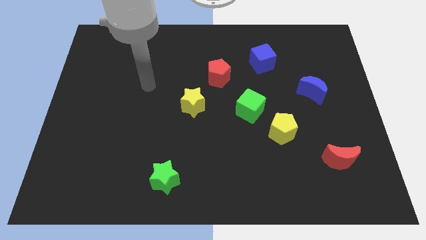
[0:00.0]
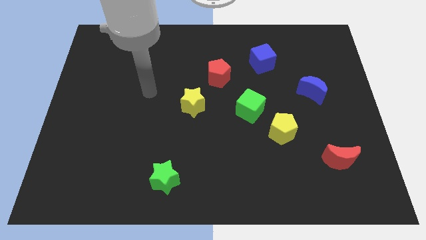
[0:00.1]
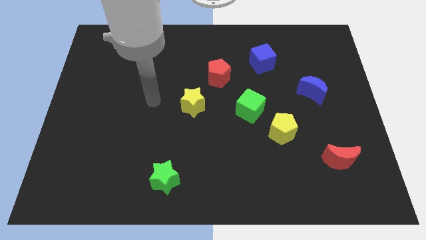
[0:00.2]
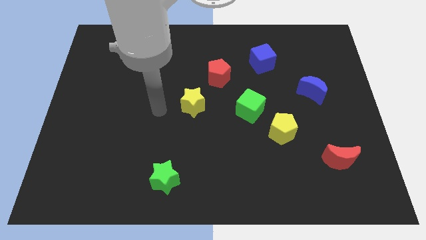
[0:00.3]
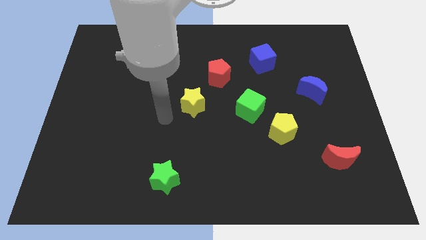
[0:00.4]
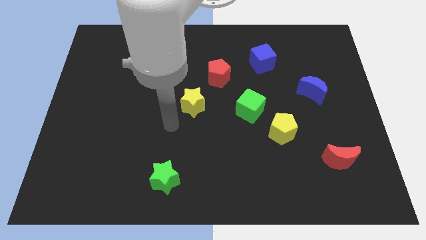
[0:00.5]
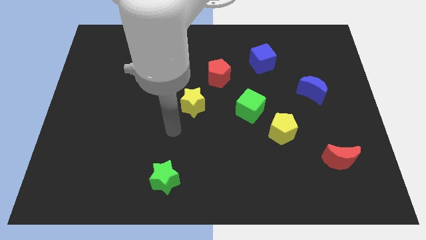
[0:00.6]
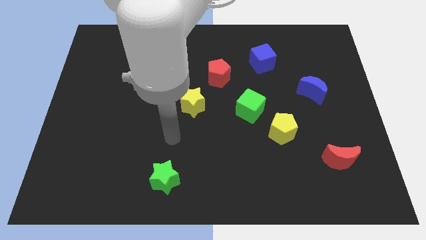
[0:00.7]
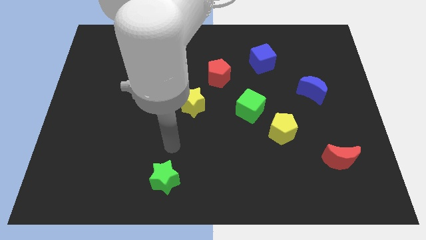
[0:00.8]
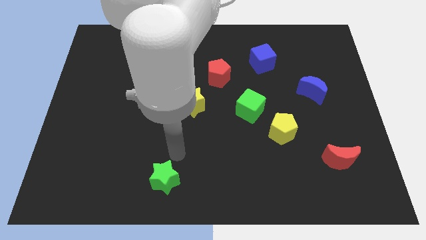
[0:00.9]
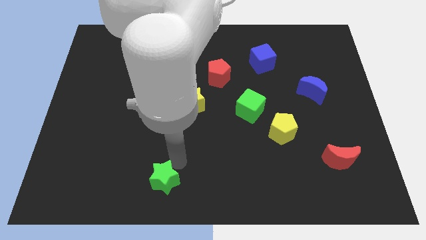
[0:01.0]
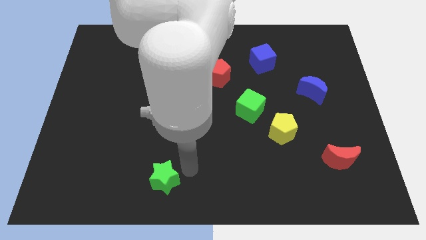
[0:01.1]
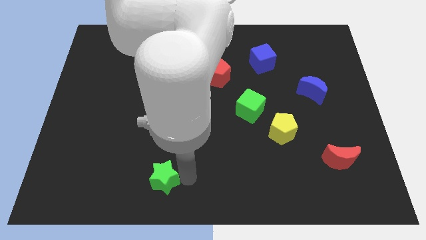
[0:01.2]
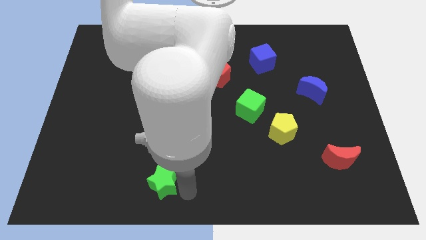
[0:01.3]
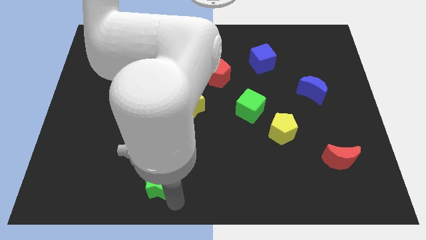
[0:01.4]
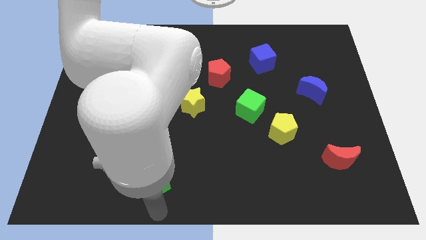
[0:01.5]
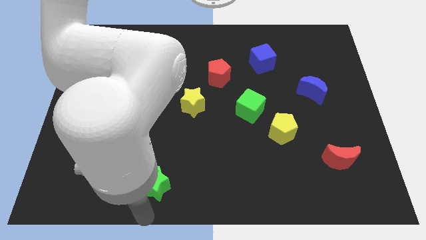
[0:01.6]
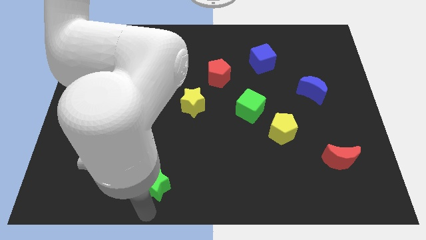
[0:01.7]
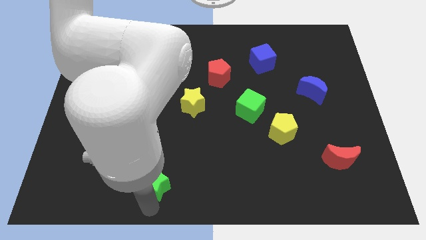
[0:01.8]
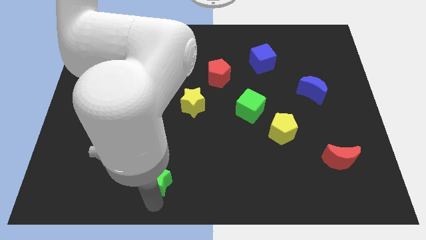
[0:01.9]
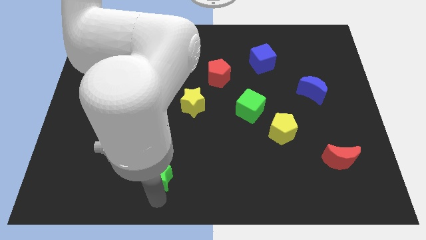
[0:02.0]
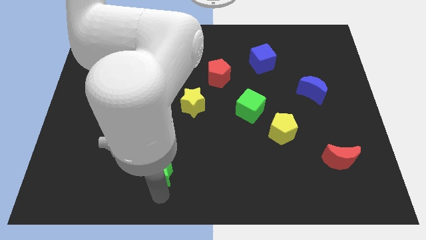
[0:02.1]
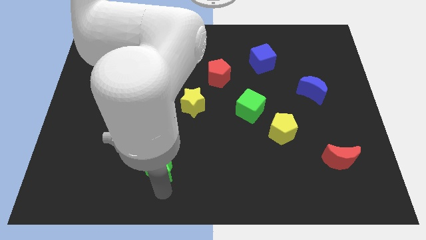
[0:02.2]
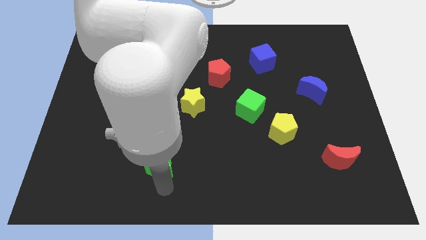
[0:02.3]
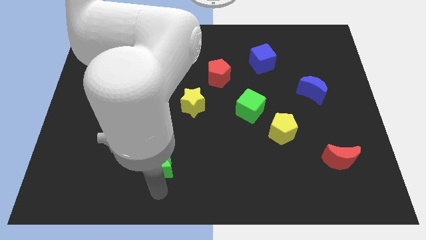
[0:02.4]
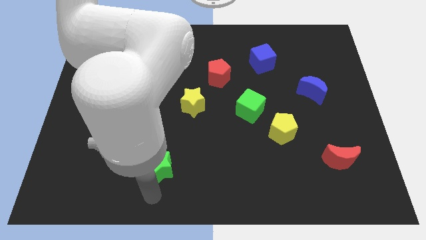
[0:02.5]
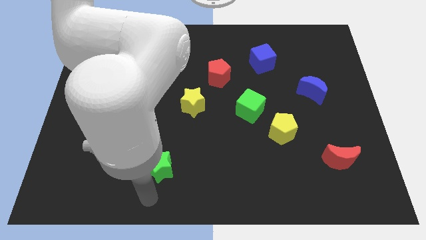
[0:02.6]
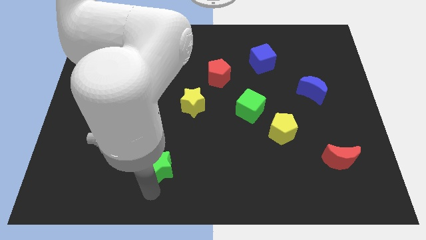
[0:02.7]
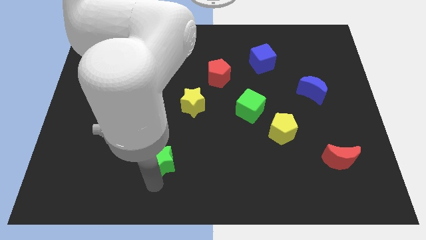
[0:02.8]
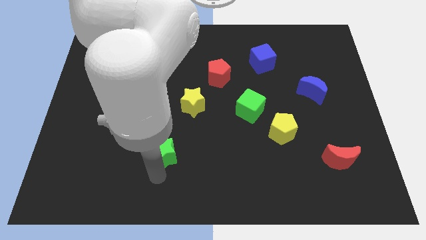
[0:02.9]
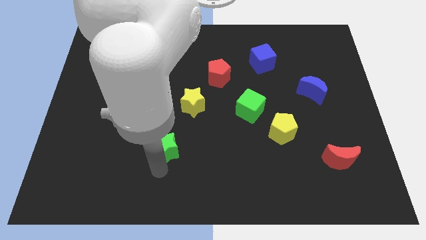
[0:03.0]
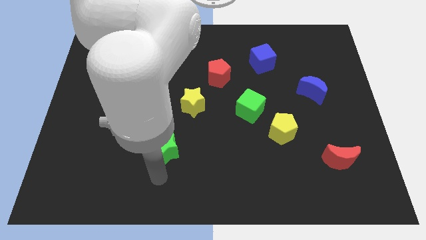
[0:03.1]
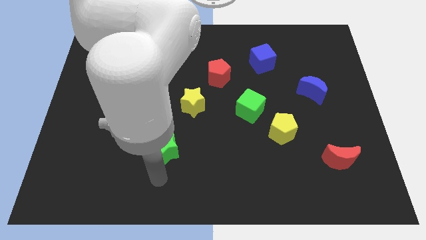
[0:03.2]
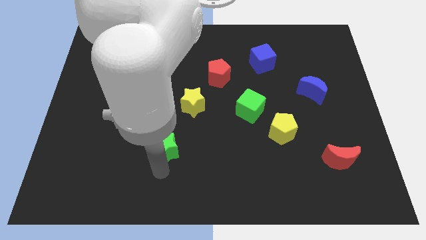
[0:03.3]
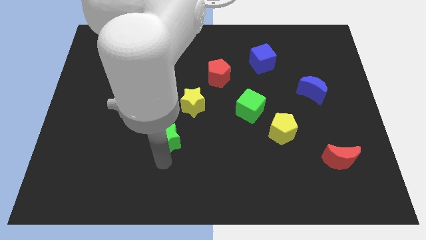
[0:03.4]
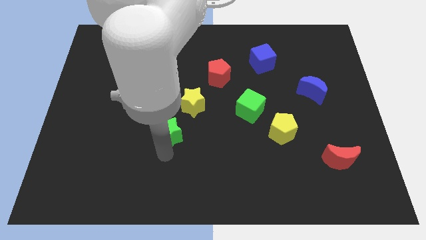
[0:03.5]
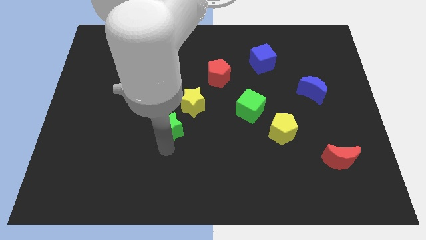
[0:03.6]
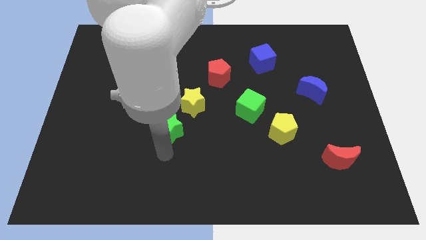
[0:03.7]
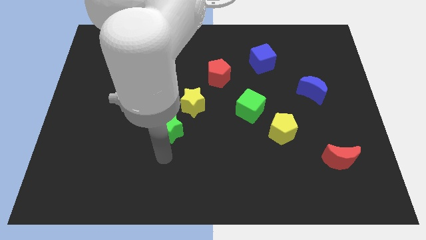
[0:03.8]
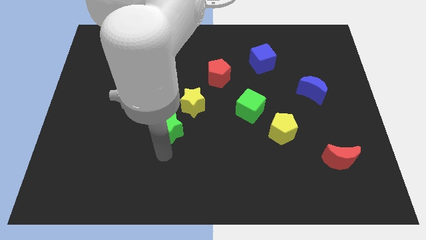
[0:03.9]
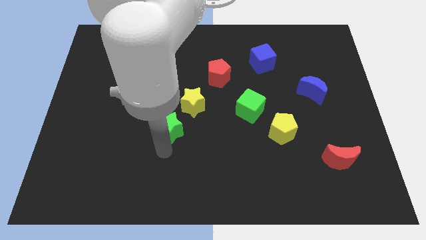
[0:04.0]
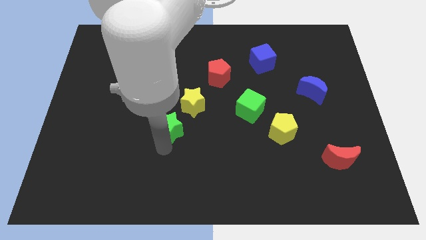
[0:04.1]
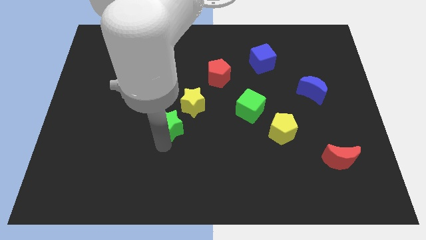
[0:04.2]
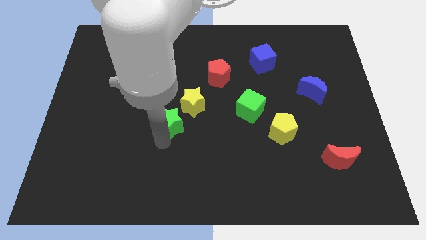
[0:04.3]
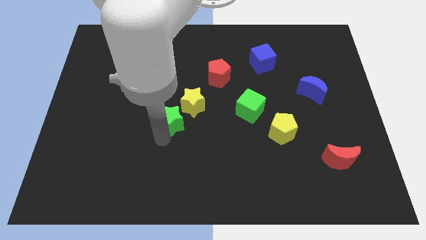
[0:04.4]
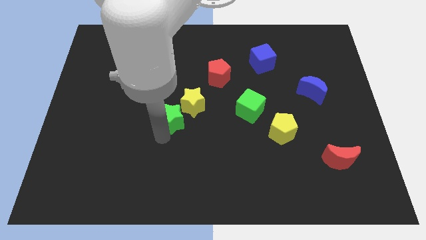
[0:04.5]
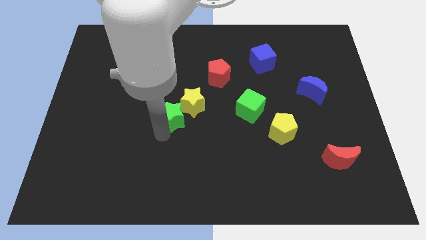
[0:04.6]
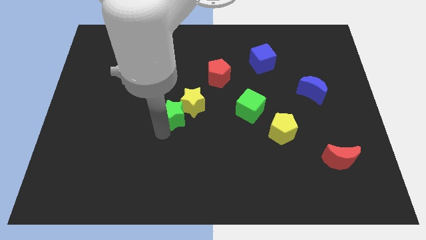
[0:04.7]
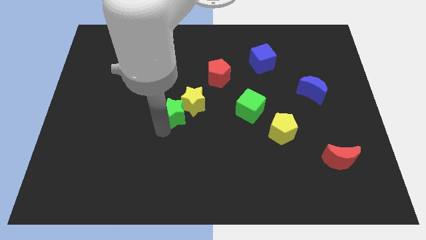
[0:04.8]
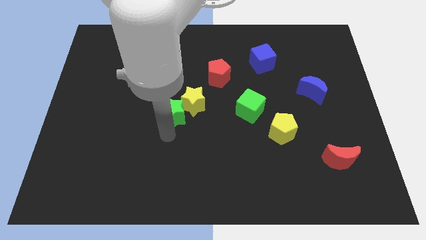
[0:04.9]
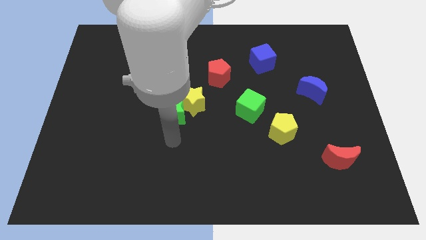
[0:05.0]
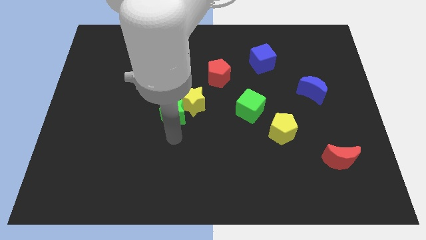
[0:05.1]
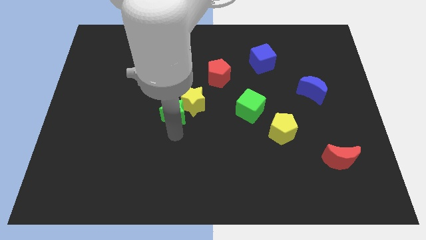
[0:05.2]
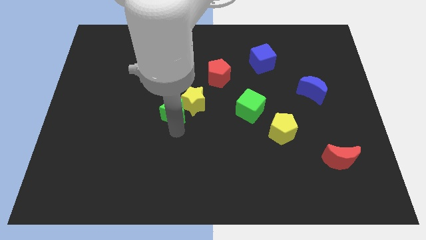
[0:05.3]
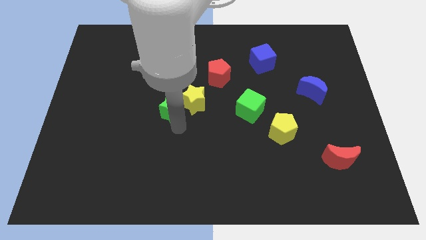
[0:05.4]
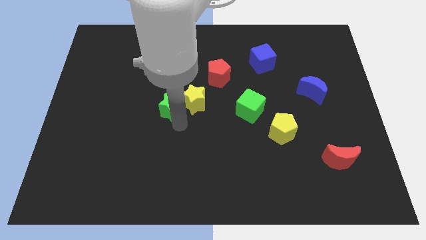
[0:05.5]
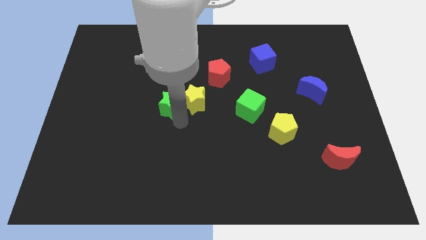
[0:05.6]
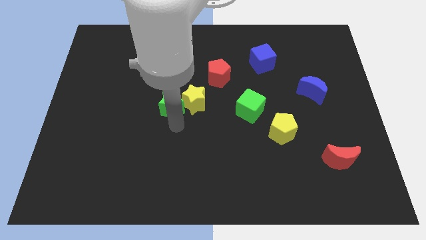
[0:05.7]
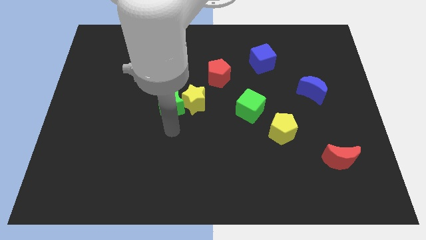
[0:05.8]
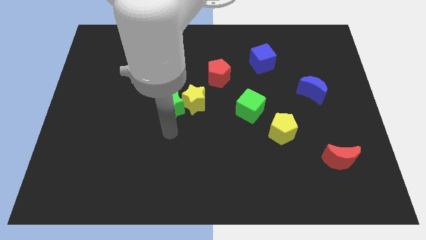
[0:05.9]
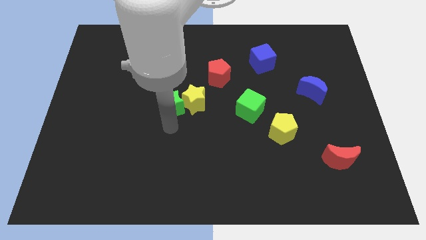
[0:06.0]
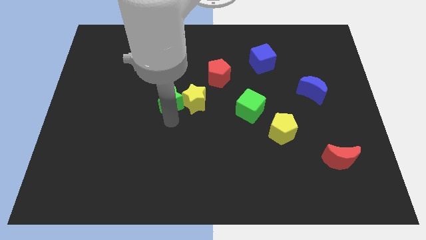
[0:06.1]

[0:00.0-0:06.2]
slide the green star up

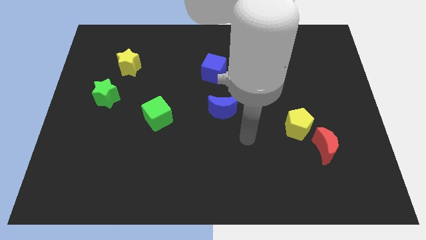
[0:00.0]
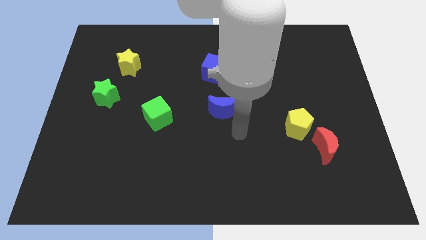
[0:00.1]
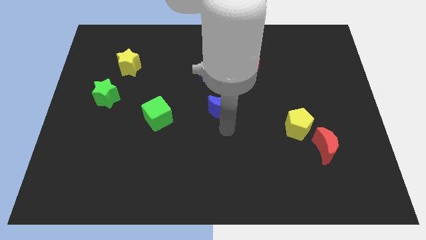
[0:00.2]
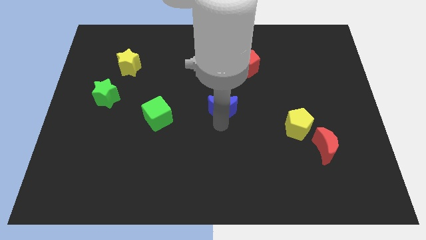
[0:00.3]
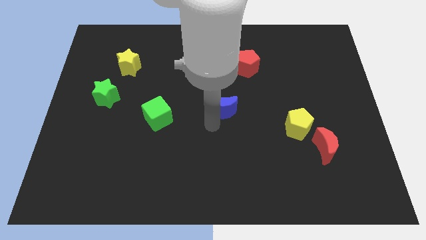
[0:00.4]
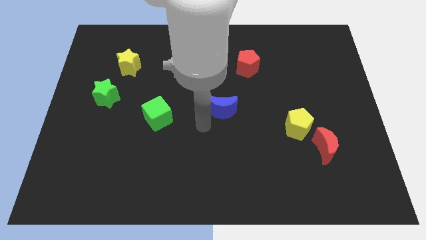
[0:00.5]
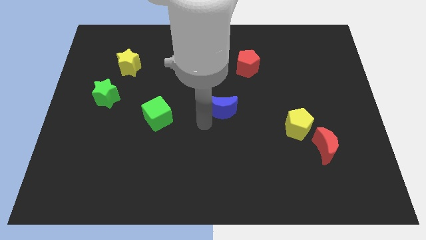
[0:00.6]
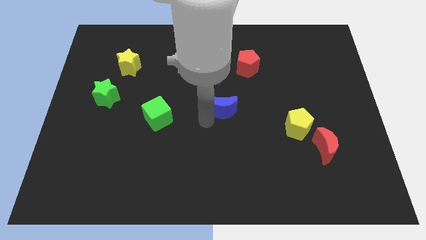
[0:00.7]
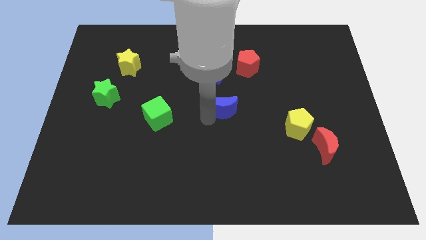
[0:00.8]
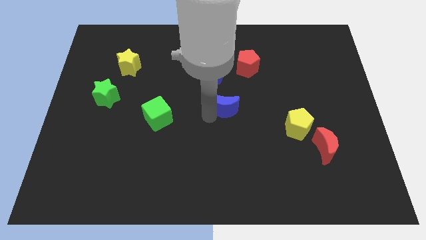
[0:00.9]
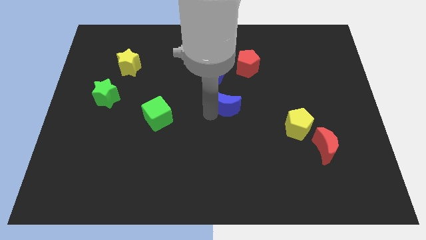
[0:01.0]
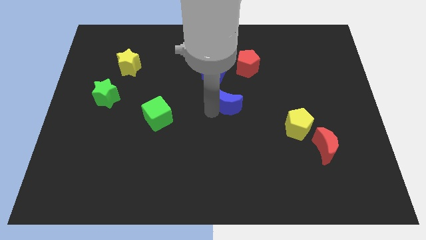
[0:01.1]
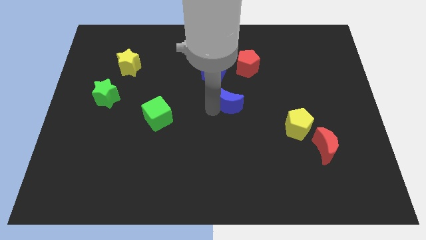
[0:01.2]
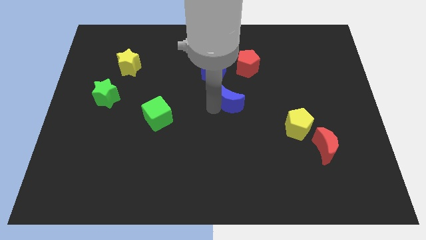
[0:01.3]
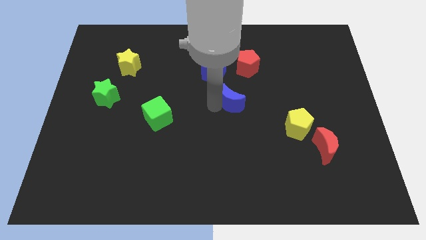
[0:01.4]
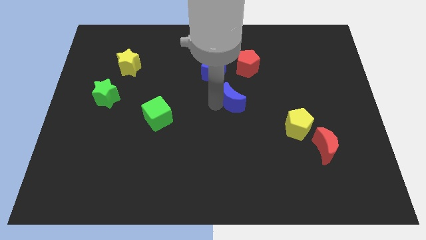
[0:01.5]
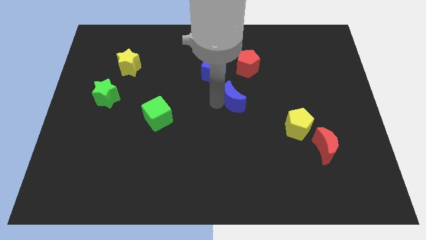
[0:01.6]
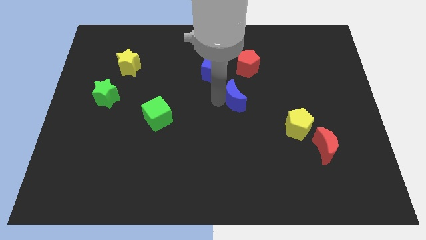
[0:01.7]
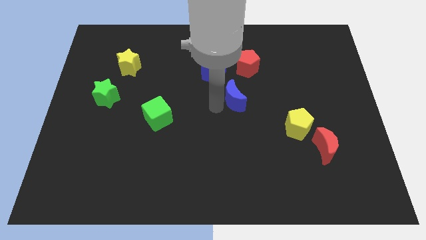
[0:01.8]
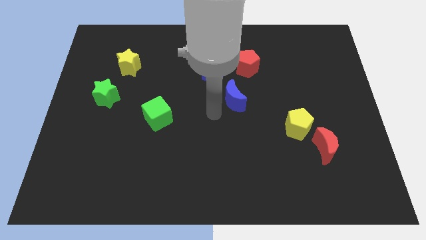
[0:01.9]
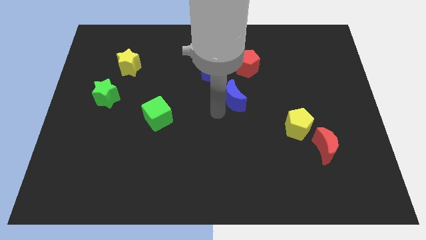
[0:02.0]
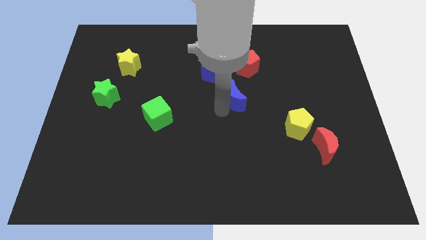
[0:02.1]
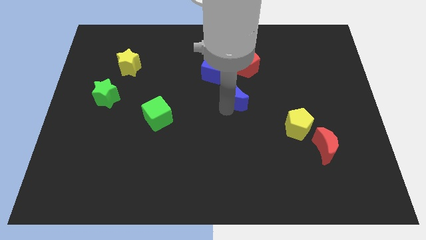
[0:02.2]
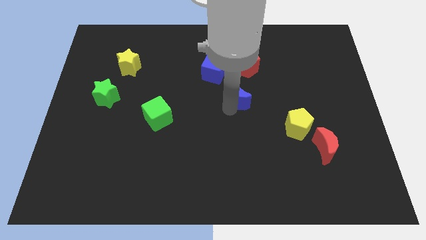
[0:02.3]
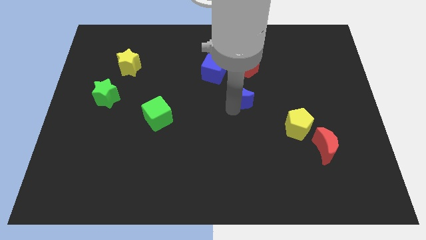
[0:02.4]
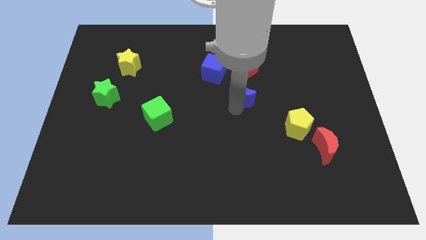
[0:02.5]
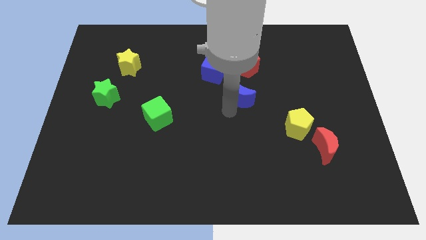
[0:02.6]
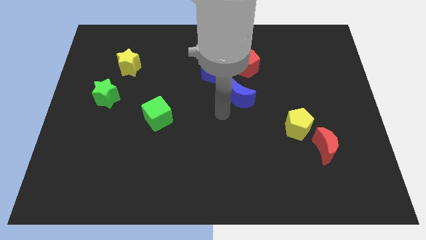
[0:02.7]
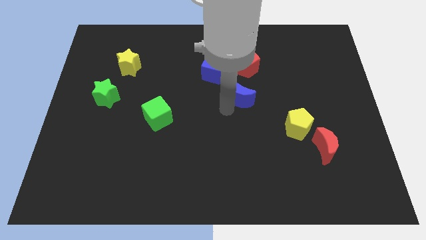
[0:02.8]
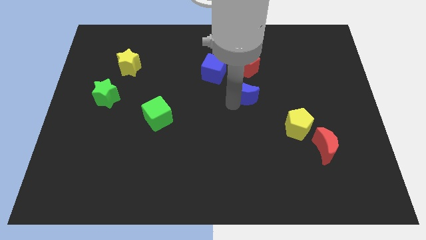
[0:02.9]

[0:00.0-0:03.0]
slightly push the blue moon diagonally upwards and to the right
